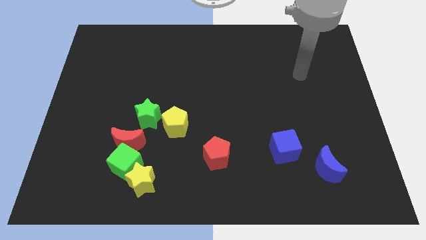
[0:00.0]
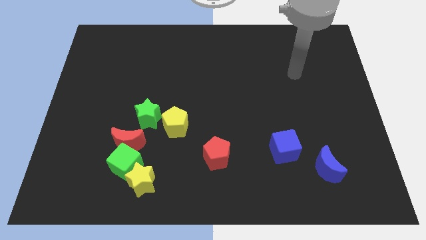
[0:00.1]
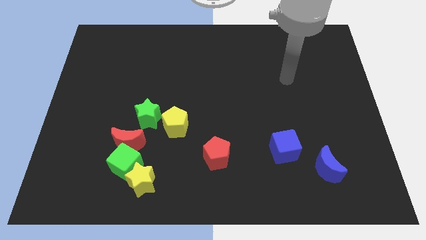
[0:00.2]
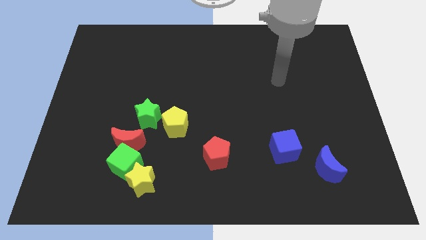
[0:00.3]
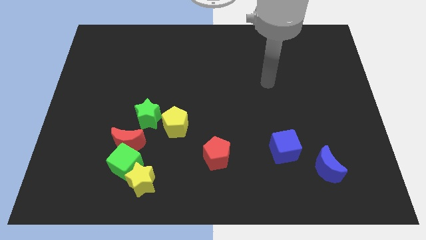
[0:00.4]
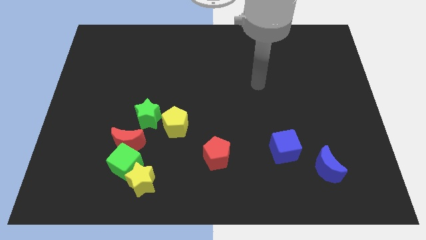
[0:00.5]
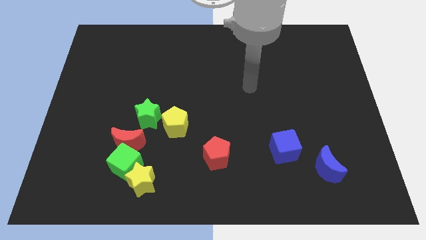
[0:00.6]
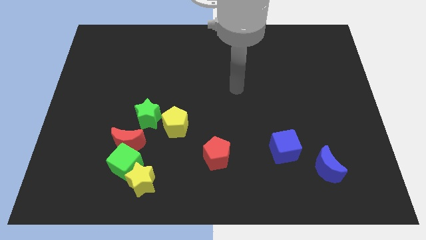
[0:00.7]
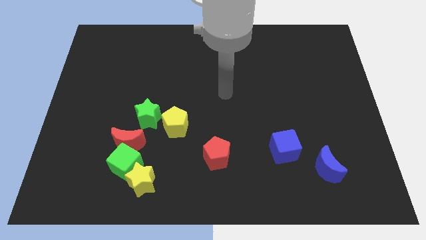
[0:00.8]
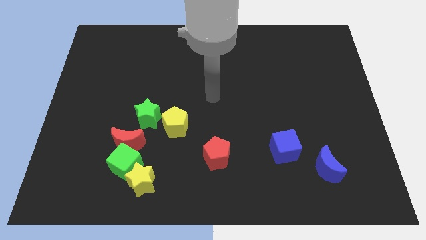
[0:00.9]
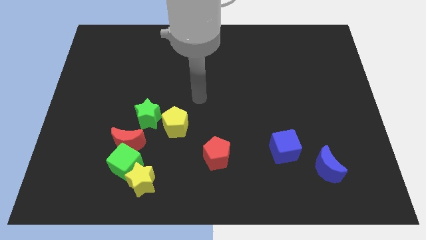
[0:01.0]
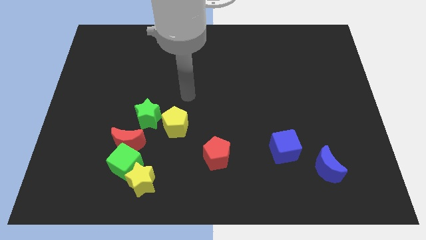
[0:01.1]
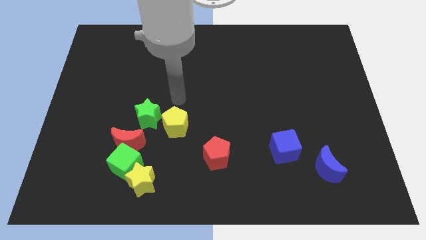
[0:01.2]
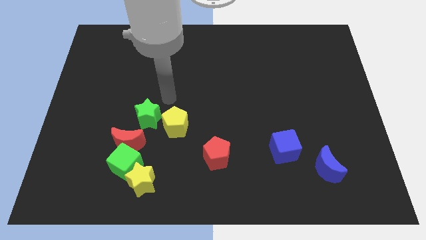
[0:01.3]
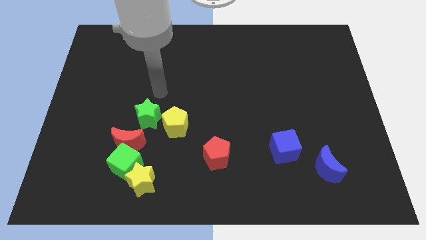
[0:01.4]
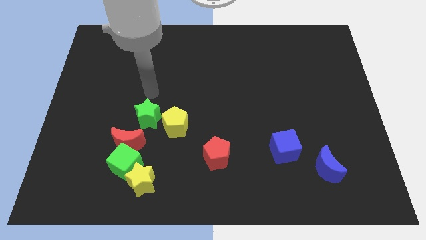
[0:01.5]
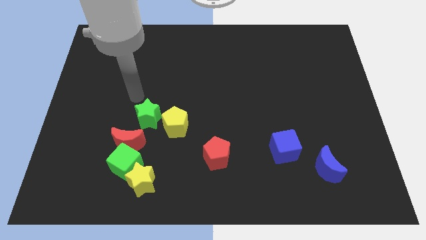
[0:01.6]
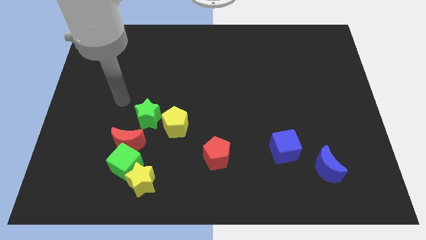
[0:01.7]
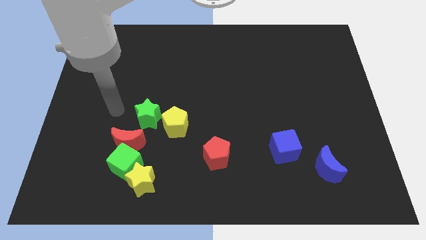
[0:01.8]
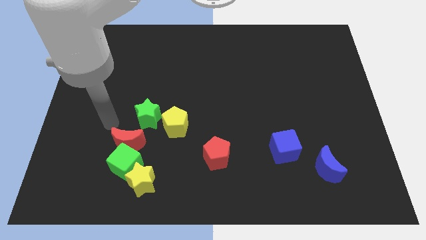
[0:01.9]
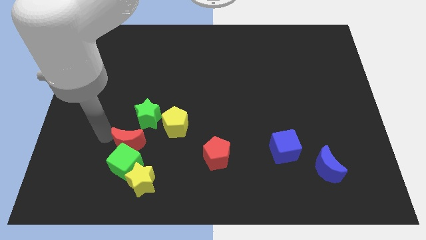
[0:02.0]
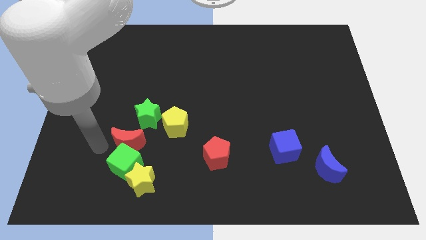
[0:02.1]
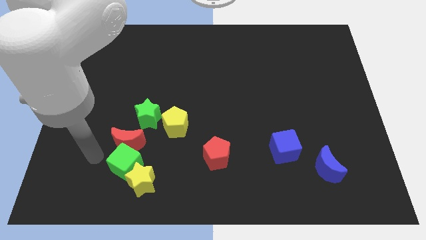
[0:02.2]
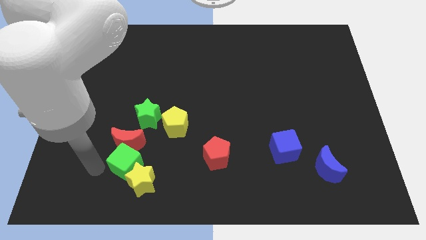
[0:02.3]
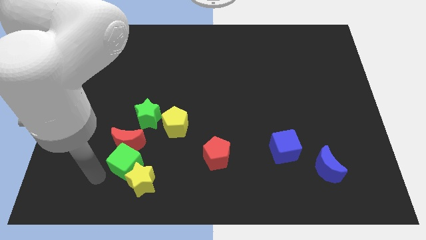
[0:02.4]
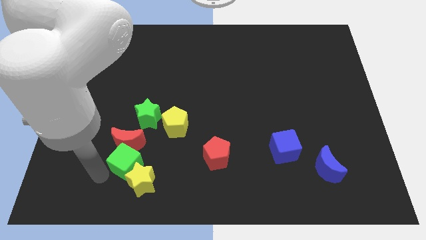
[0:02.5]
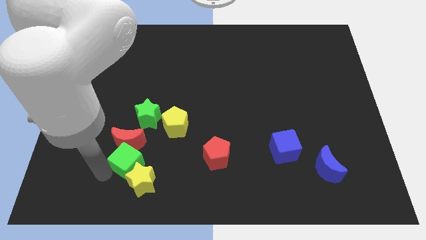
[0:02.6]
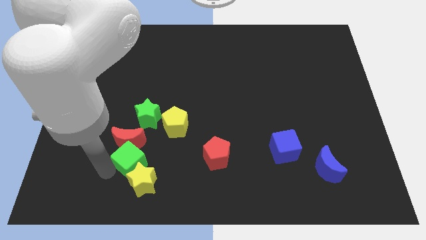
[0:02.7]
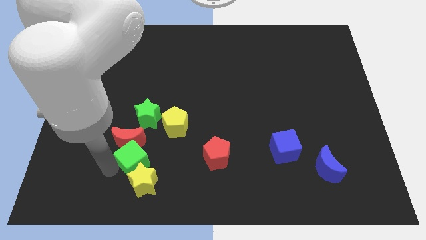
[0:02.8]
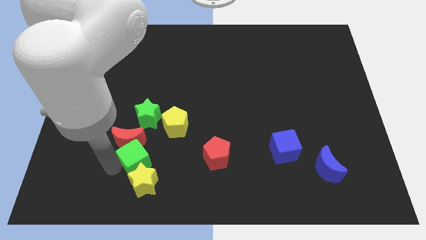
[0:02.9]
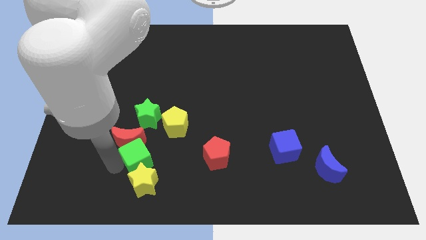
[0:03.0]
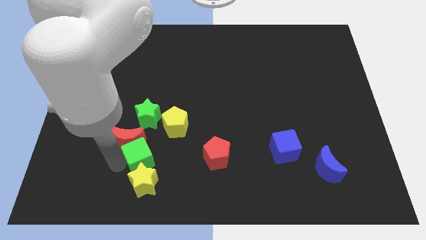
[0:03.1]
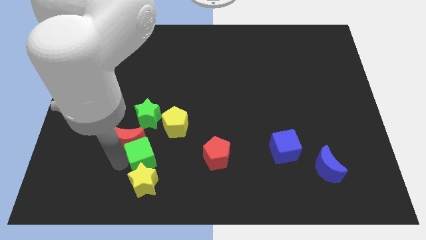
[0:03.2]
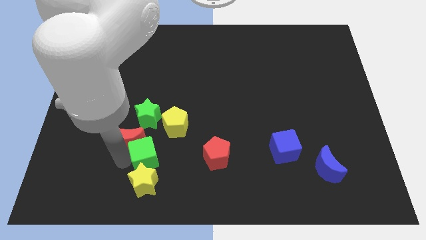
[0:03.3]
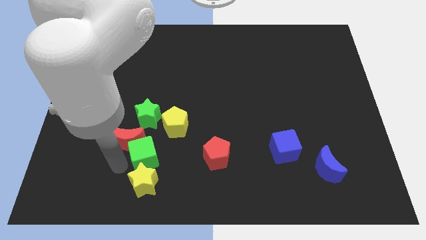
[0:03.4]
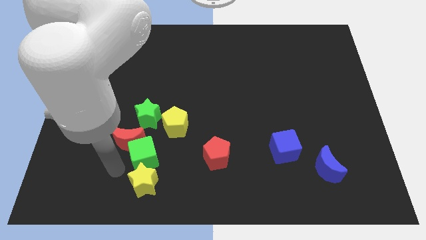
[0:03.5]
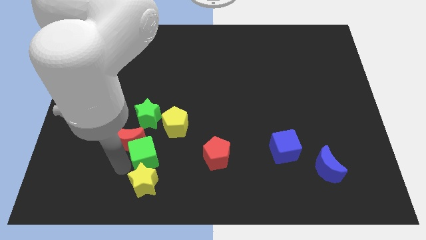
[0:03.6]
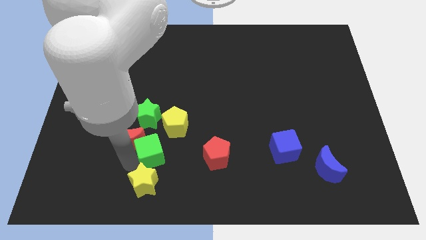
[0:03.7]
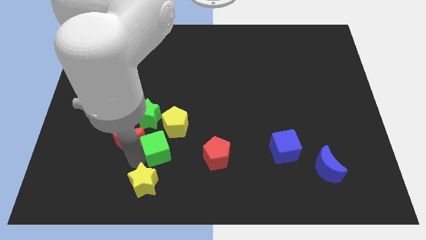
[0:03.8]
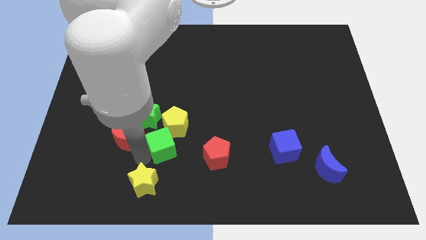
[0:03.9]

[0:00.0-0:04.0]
slightly move the green cube diagonally upwards and to the right

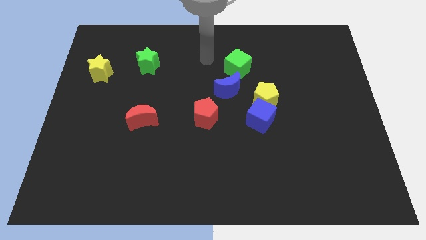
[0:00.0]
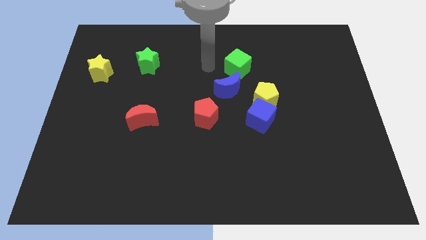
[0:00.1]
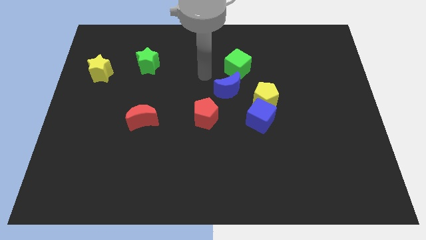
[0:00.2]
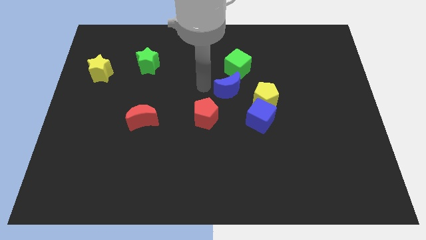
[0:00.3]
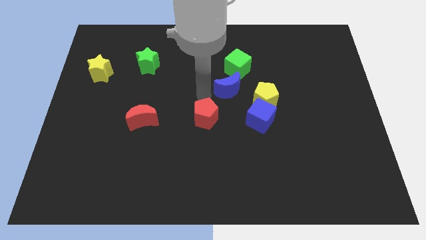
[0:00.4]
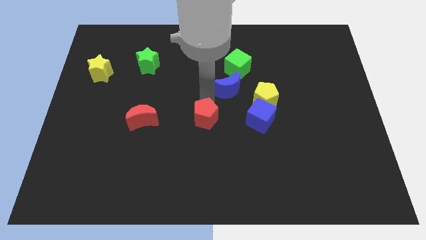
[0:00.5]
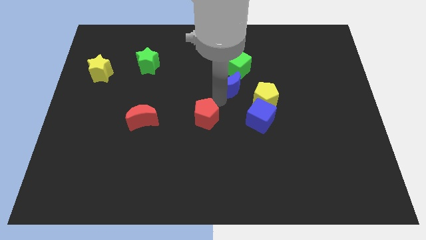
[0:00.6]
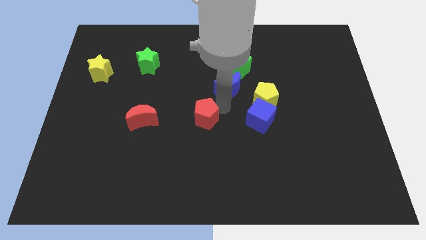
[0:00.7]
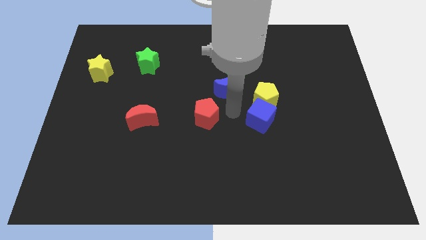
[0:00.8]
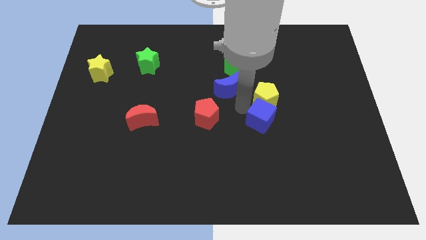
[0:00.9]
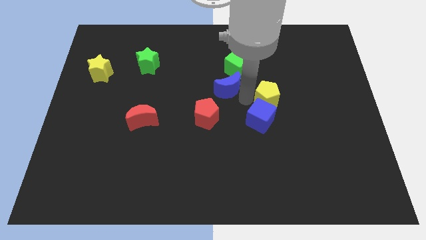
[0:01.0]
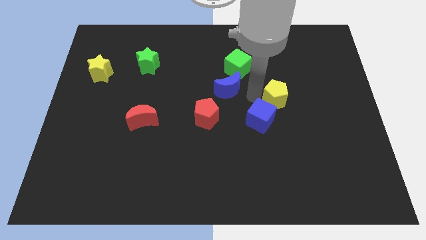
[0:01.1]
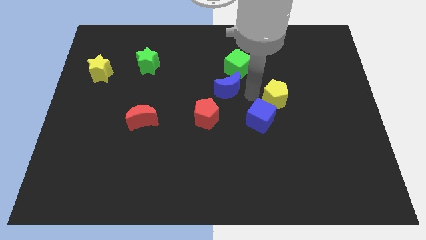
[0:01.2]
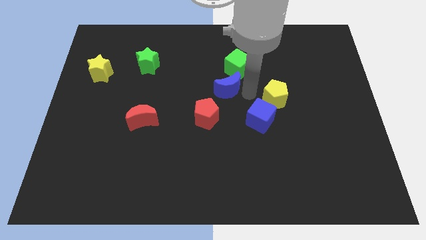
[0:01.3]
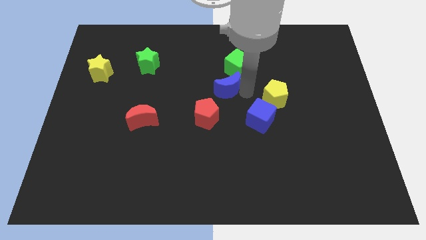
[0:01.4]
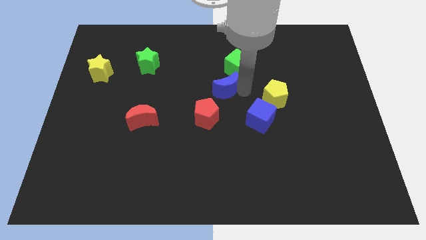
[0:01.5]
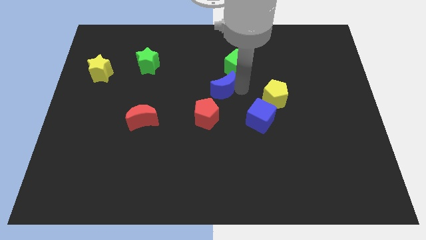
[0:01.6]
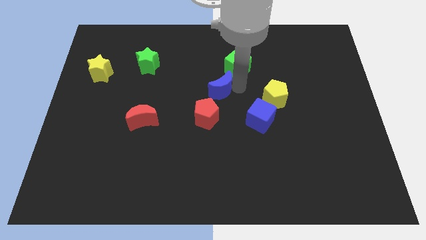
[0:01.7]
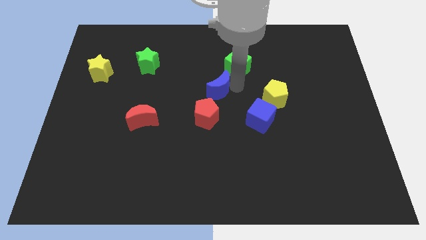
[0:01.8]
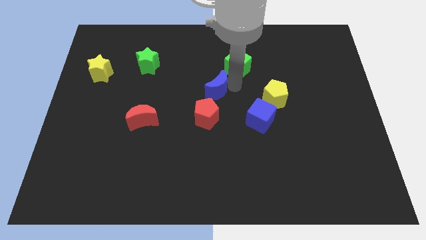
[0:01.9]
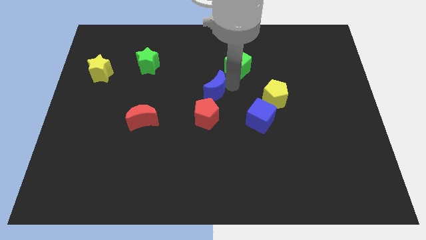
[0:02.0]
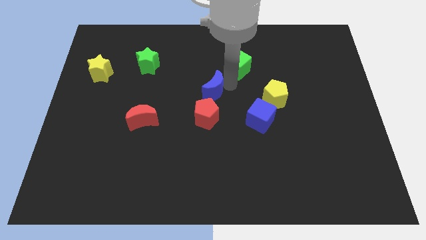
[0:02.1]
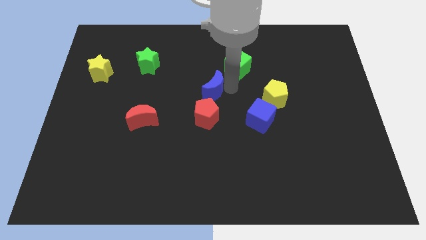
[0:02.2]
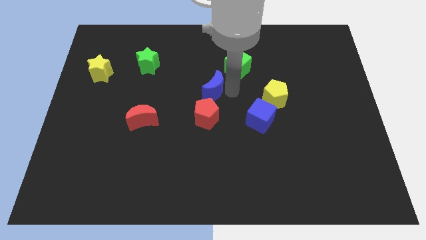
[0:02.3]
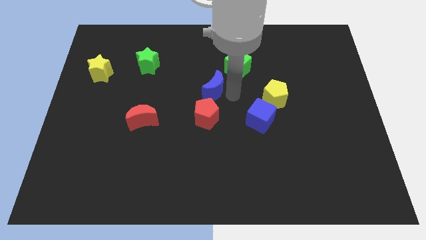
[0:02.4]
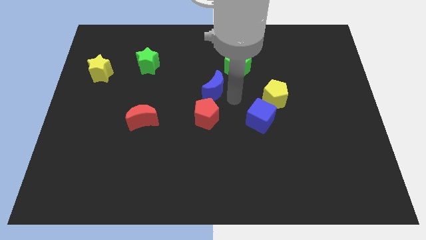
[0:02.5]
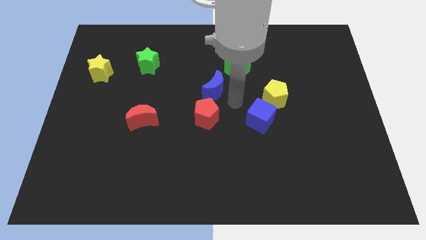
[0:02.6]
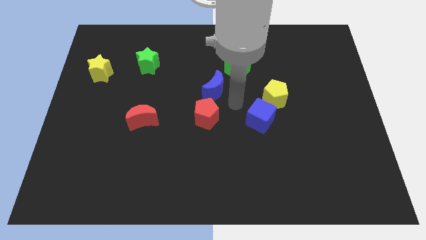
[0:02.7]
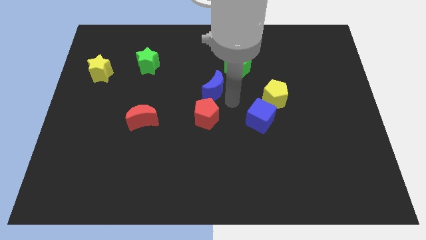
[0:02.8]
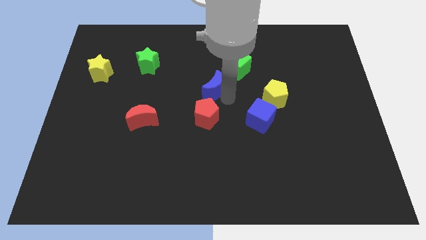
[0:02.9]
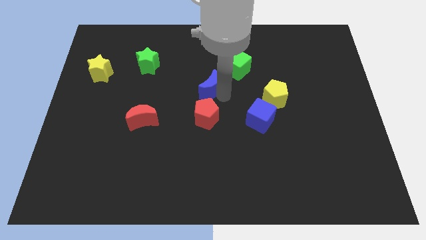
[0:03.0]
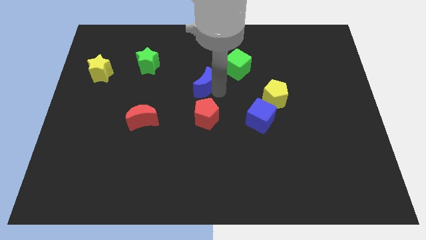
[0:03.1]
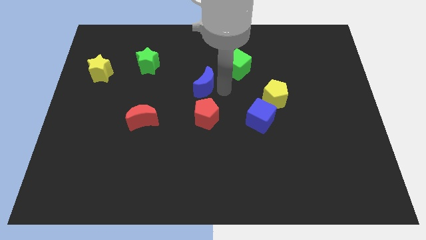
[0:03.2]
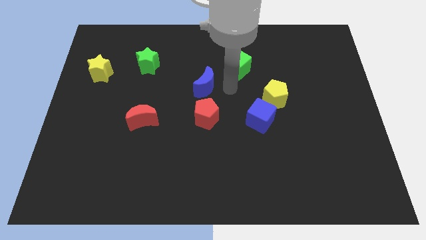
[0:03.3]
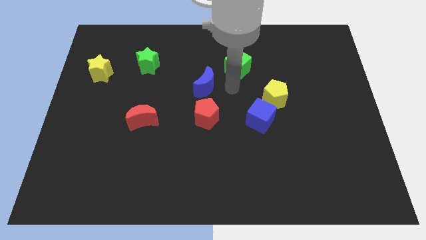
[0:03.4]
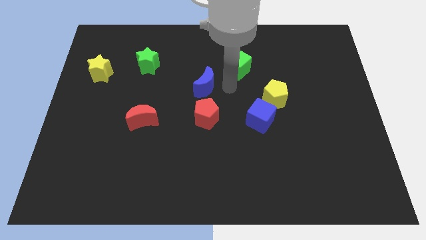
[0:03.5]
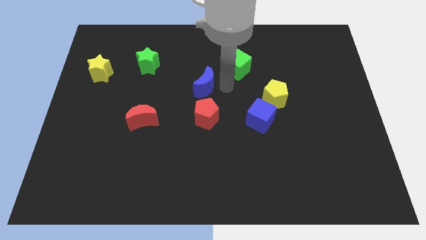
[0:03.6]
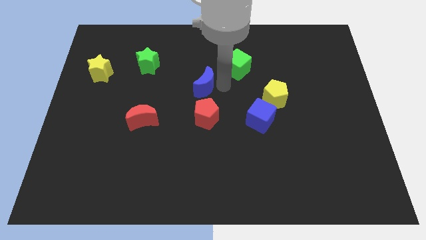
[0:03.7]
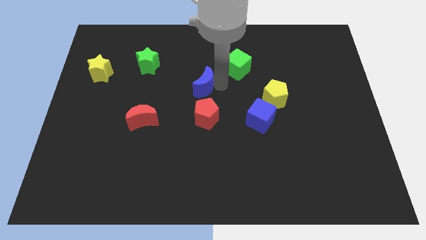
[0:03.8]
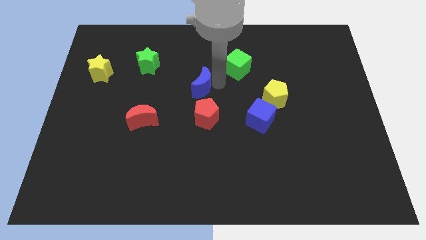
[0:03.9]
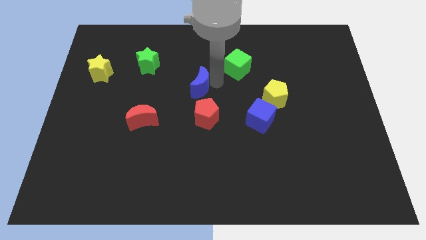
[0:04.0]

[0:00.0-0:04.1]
move the blue moon a bit to the left

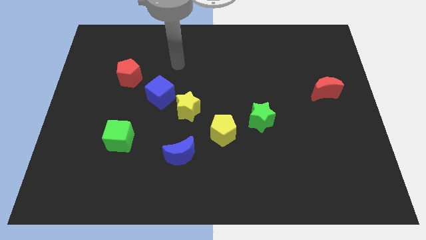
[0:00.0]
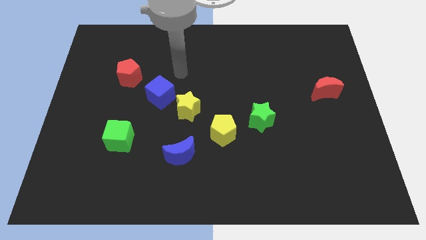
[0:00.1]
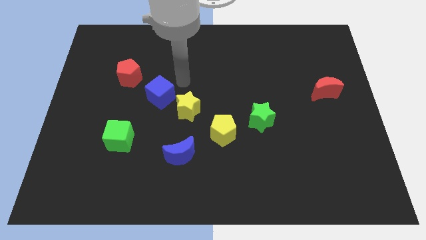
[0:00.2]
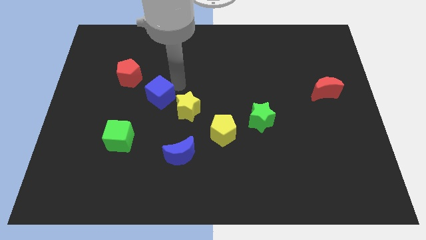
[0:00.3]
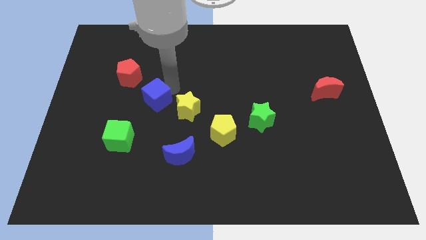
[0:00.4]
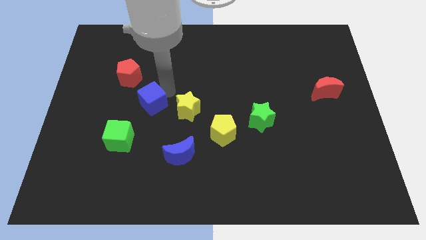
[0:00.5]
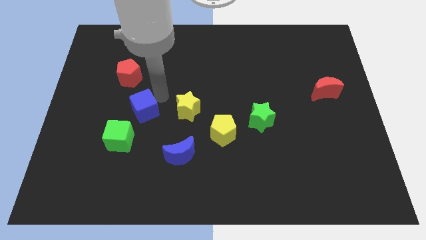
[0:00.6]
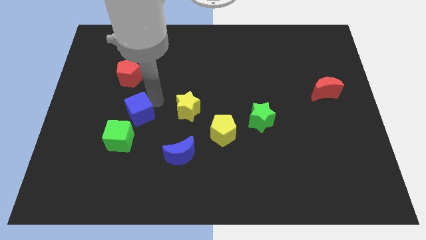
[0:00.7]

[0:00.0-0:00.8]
slightly push the blue cube down and to the left
